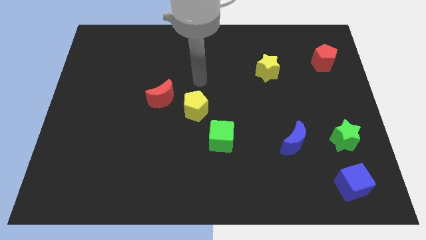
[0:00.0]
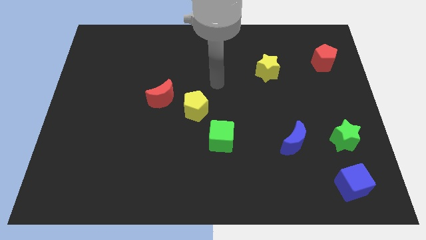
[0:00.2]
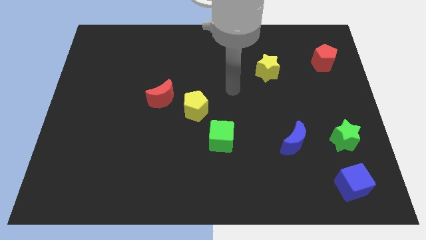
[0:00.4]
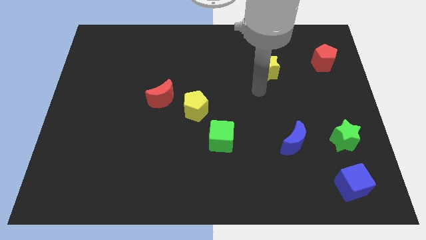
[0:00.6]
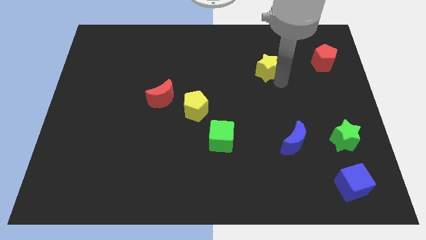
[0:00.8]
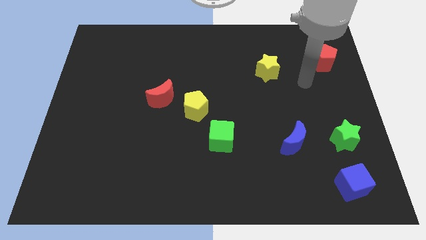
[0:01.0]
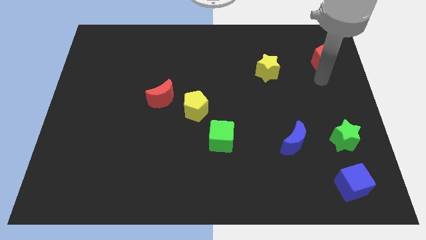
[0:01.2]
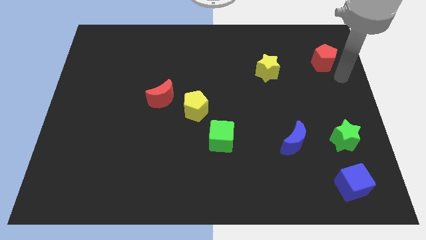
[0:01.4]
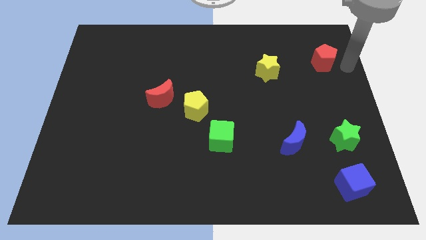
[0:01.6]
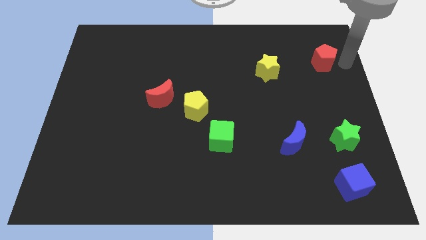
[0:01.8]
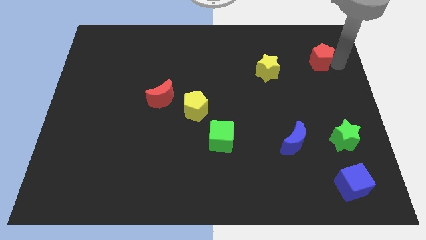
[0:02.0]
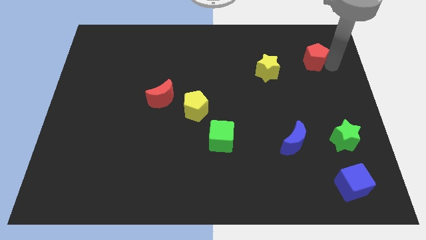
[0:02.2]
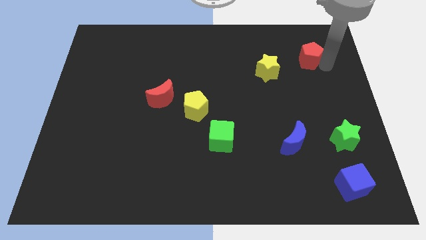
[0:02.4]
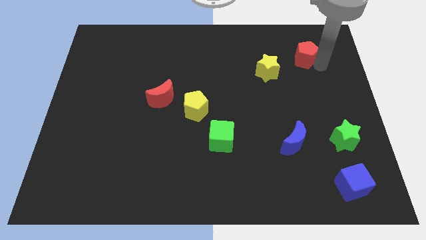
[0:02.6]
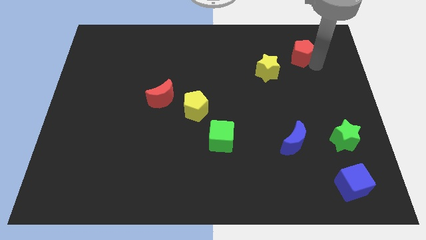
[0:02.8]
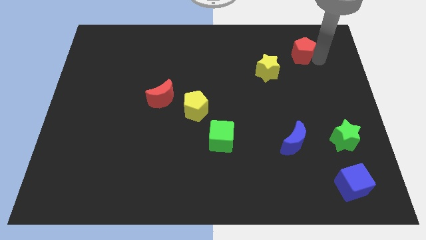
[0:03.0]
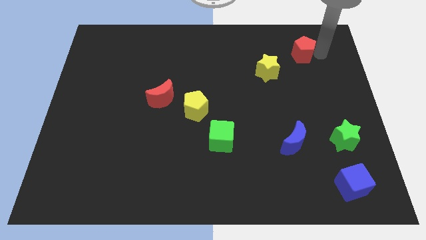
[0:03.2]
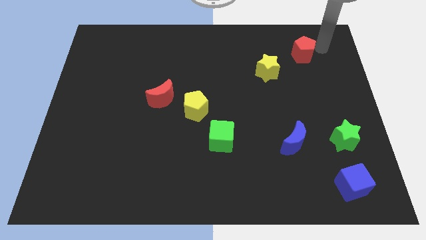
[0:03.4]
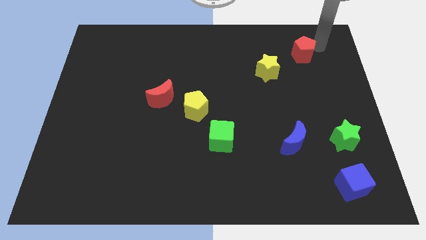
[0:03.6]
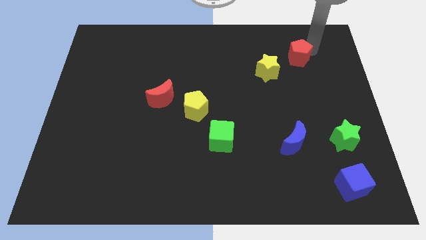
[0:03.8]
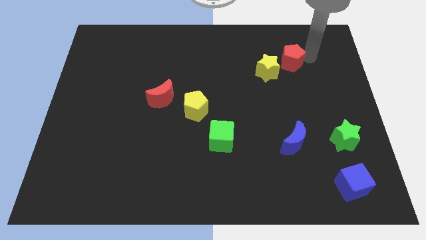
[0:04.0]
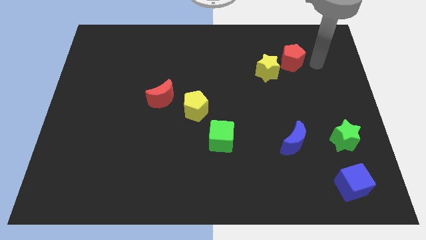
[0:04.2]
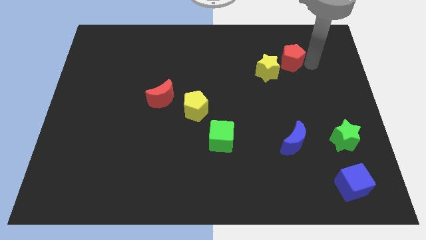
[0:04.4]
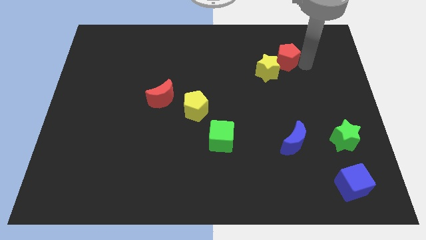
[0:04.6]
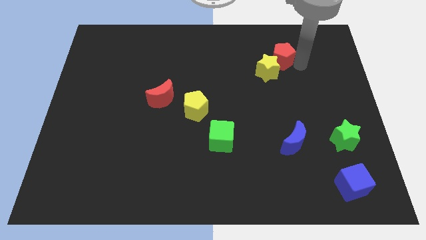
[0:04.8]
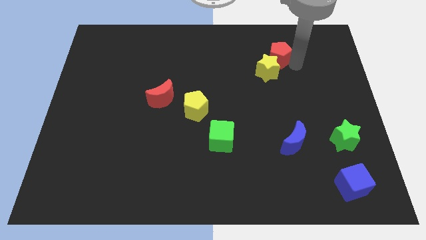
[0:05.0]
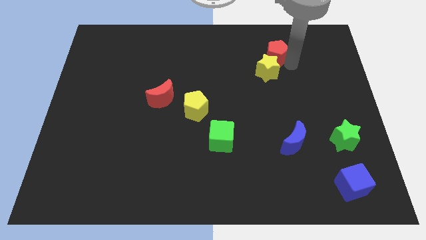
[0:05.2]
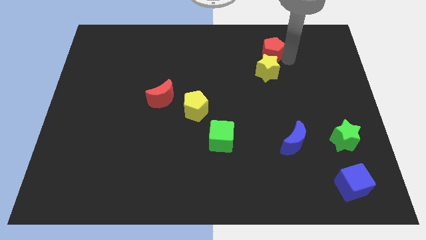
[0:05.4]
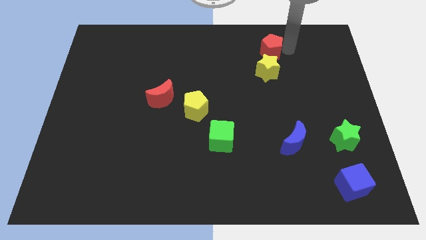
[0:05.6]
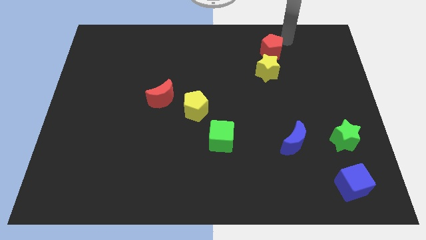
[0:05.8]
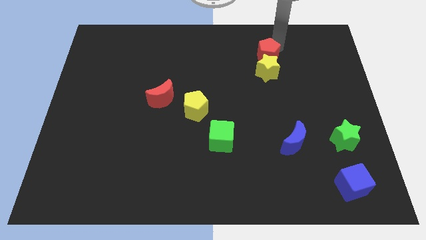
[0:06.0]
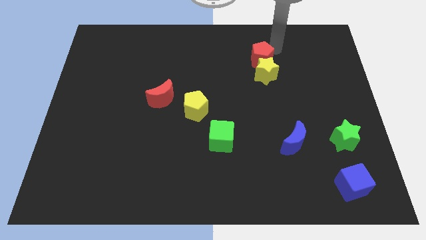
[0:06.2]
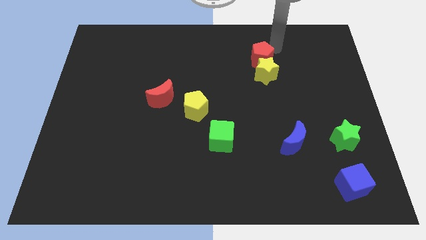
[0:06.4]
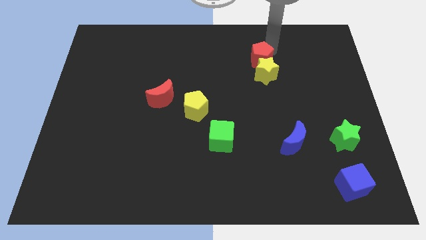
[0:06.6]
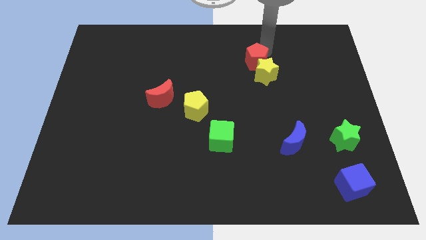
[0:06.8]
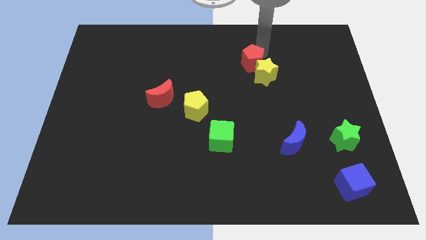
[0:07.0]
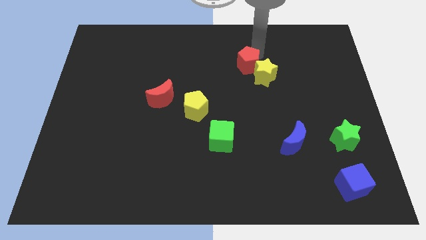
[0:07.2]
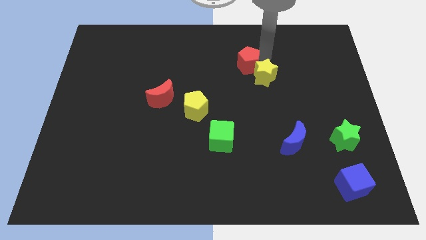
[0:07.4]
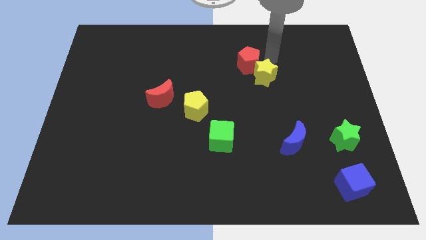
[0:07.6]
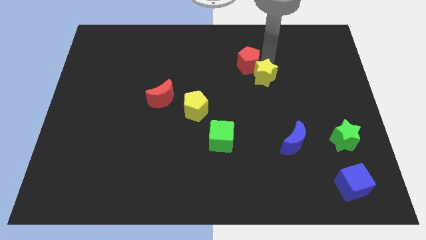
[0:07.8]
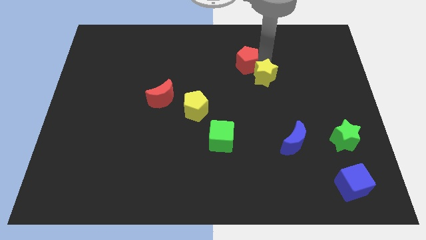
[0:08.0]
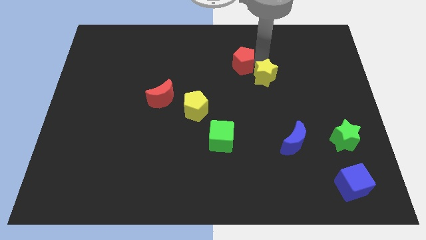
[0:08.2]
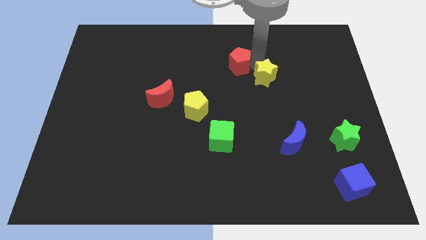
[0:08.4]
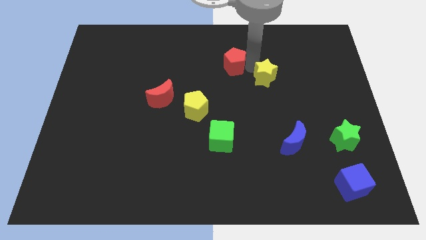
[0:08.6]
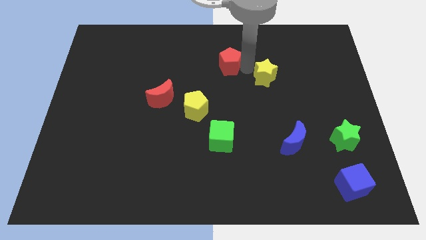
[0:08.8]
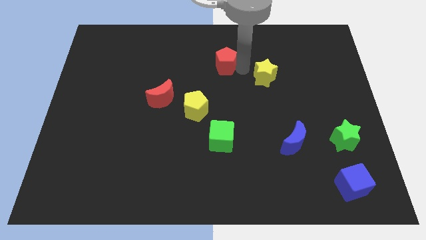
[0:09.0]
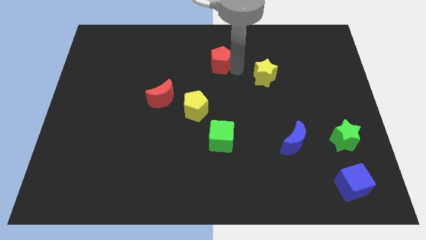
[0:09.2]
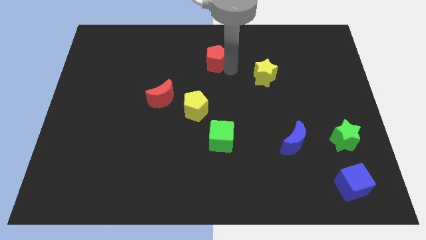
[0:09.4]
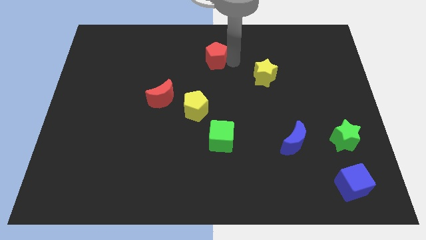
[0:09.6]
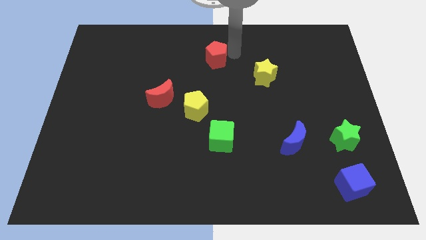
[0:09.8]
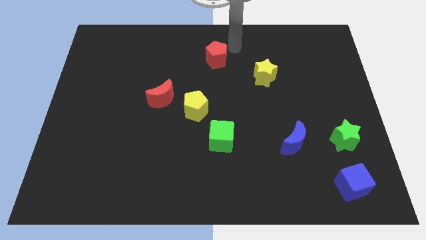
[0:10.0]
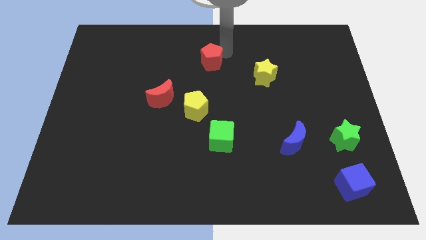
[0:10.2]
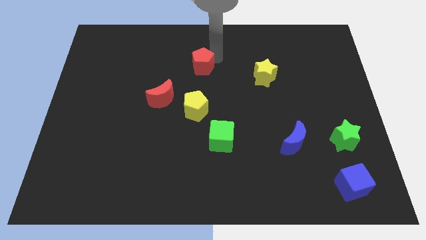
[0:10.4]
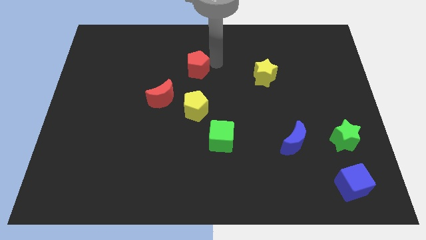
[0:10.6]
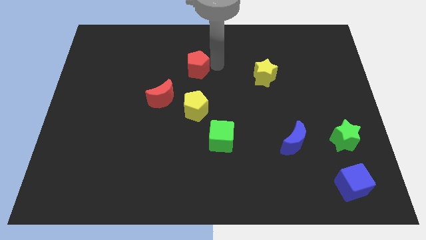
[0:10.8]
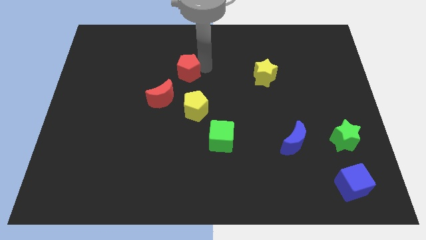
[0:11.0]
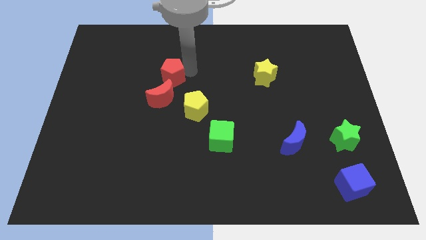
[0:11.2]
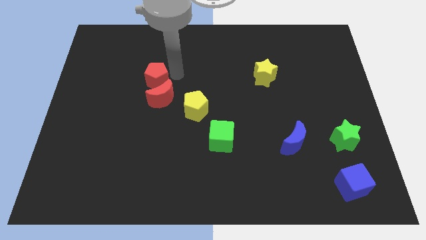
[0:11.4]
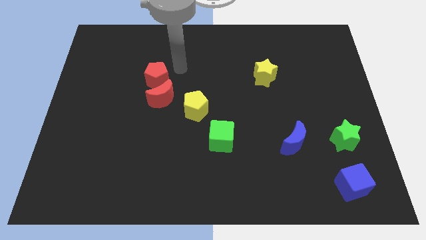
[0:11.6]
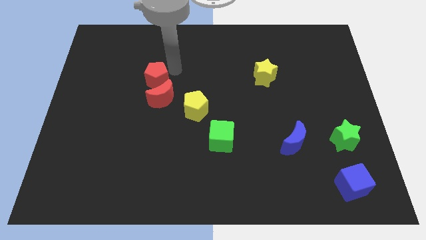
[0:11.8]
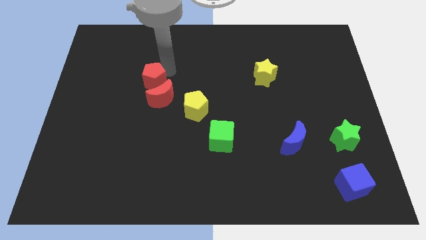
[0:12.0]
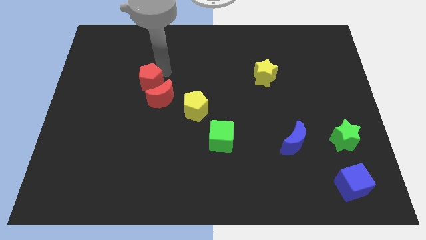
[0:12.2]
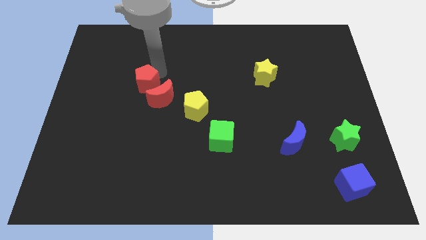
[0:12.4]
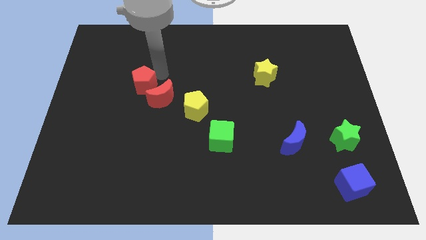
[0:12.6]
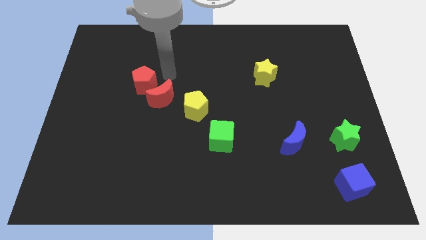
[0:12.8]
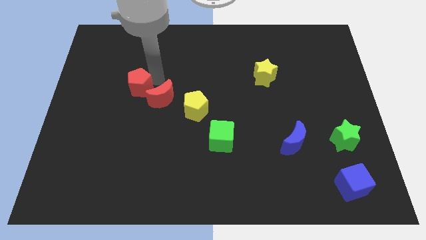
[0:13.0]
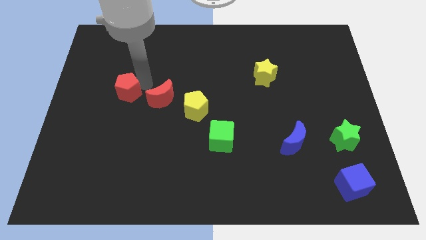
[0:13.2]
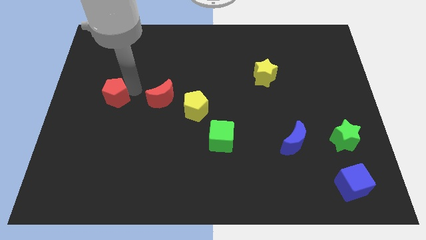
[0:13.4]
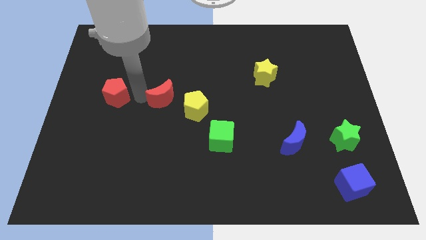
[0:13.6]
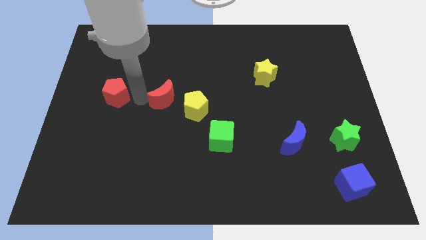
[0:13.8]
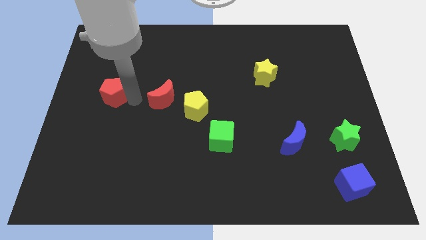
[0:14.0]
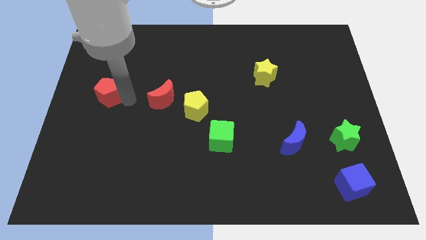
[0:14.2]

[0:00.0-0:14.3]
push the red pentagon to the center left
